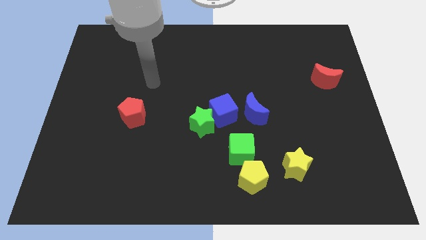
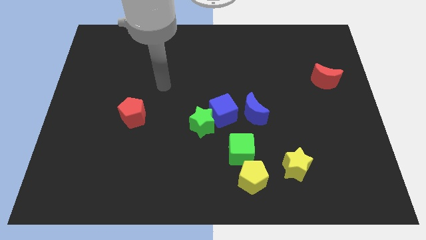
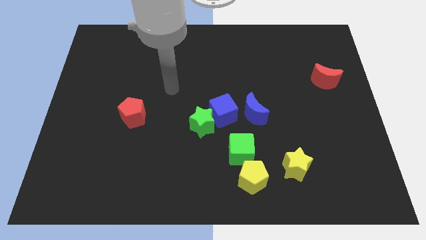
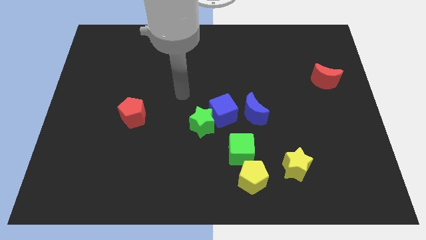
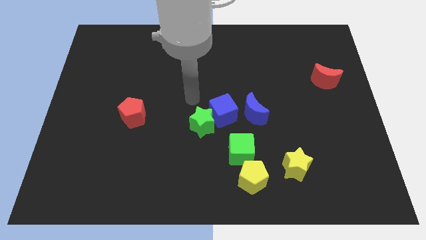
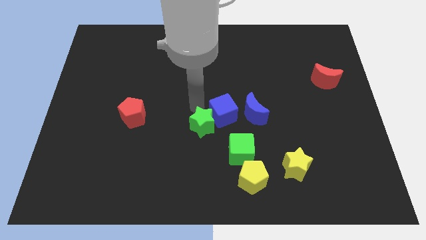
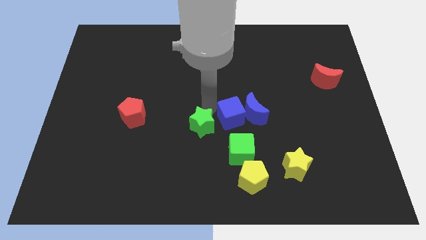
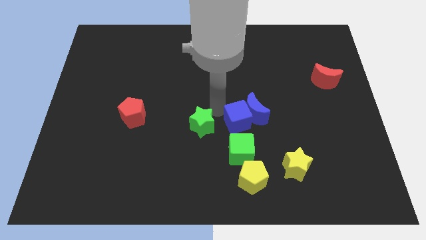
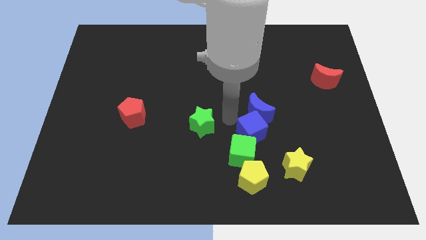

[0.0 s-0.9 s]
separate the green star from the blue cube

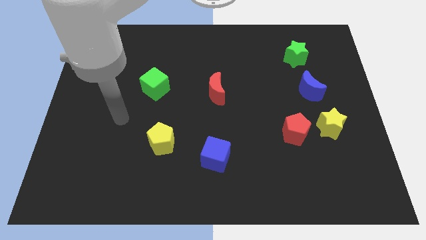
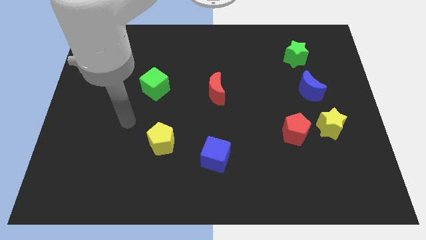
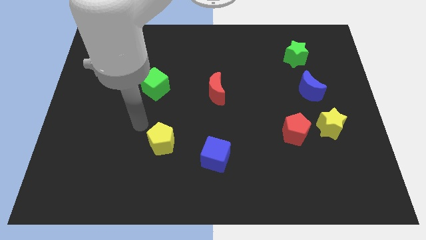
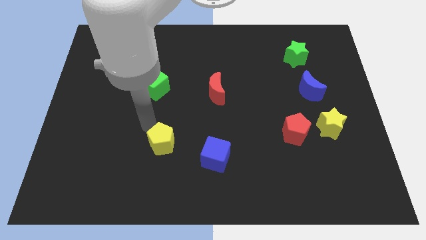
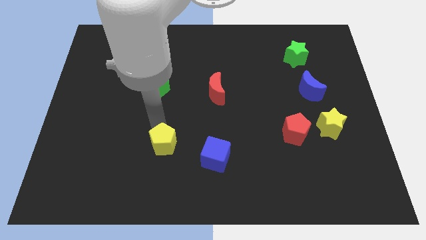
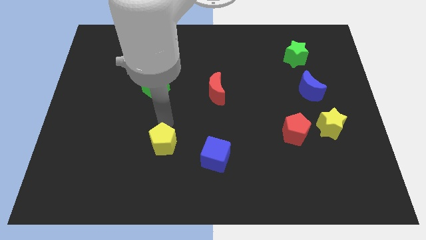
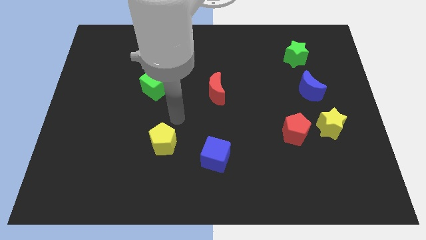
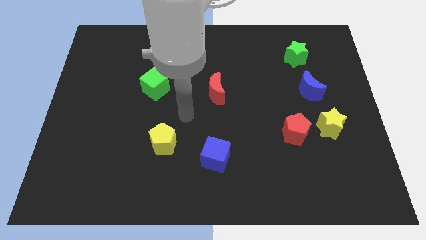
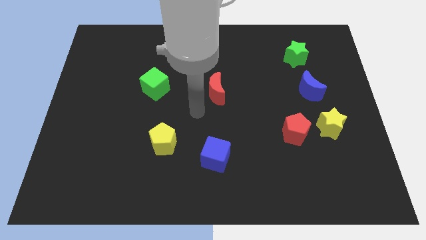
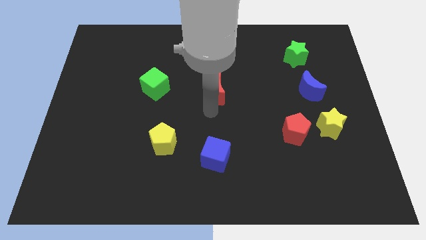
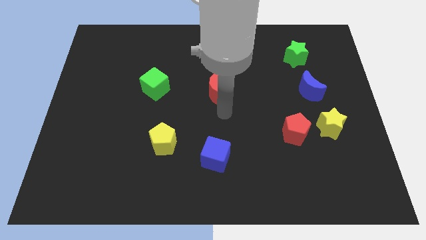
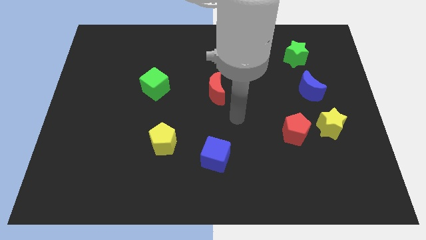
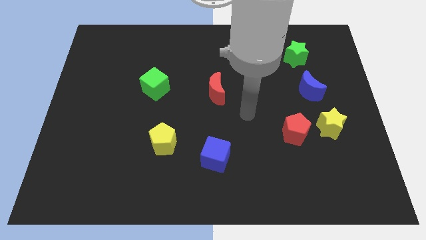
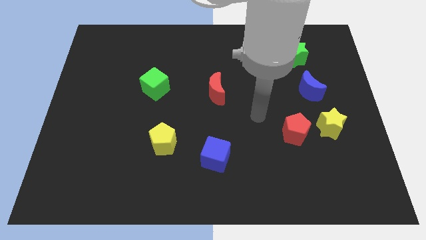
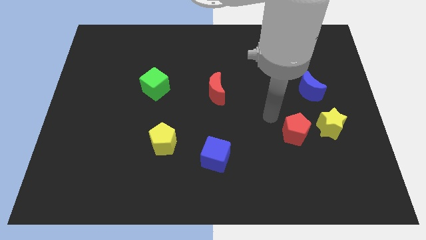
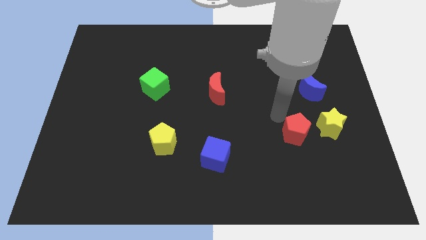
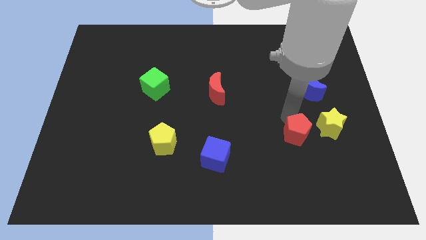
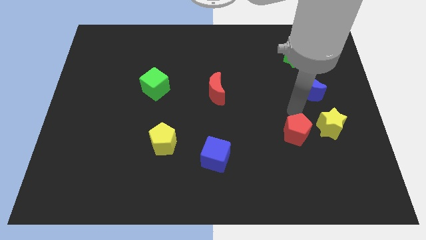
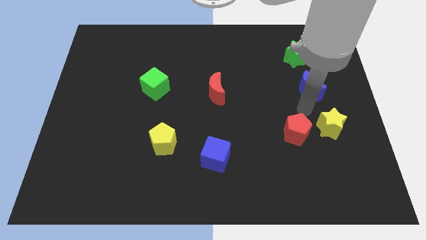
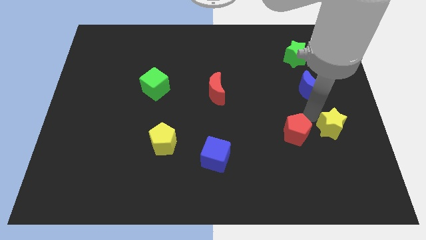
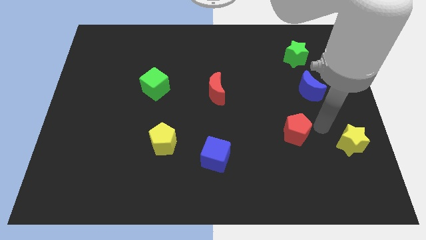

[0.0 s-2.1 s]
separate the red pentagon from the yellow star

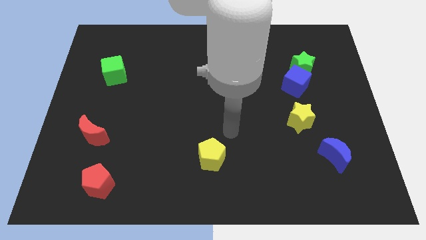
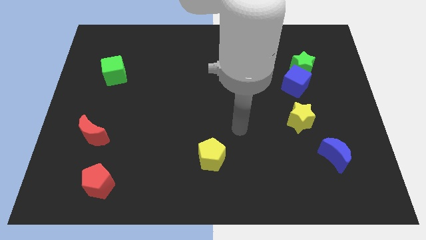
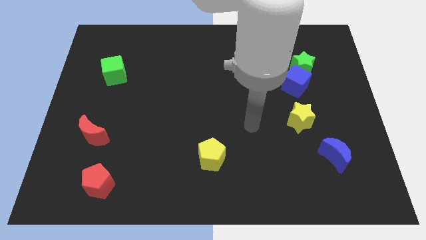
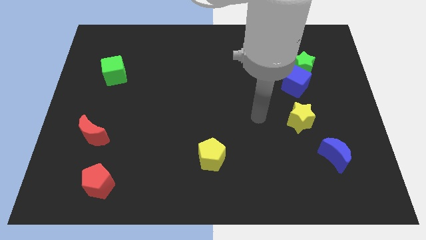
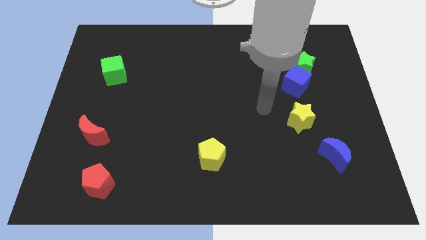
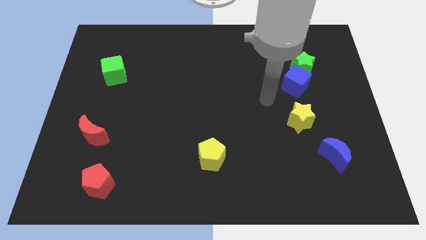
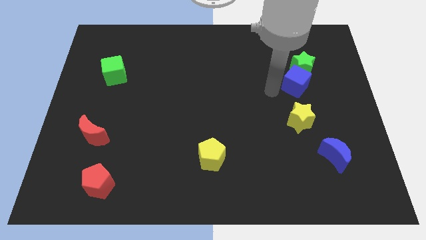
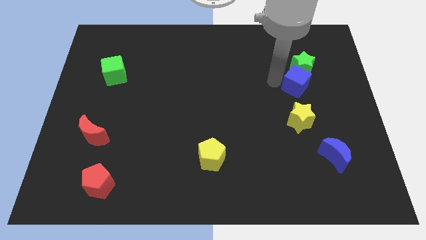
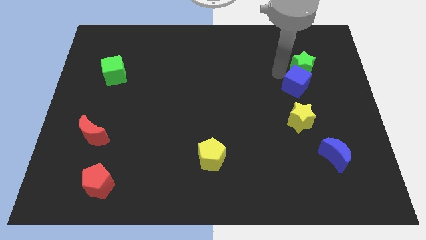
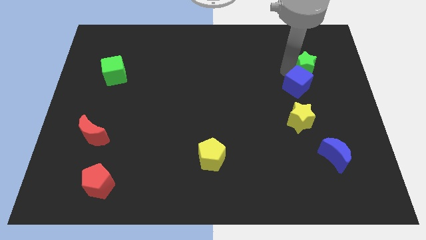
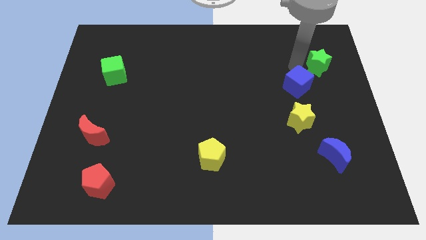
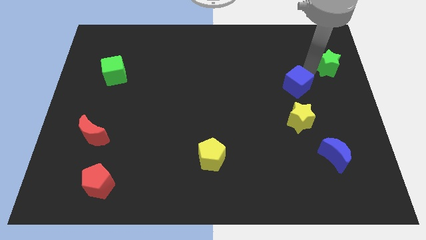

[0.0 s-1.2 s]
move the blue cube away from the green star

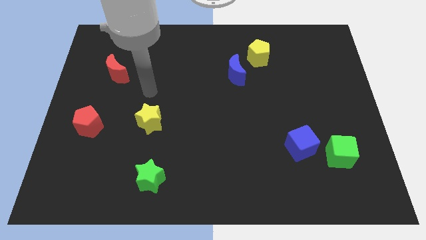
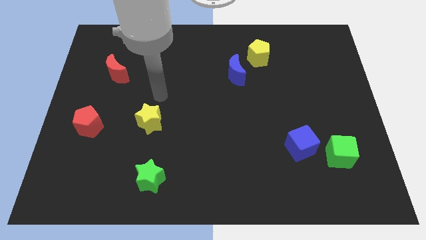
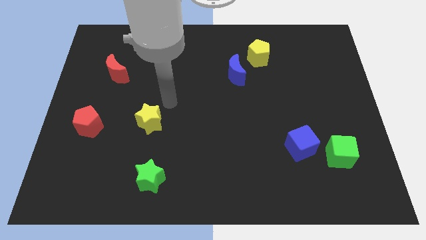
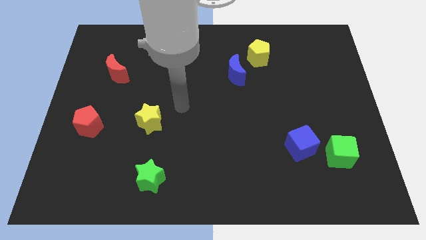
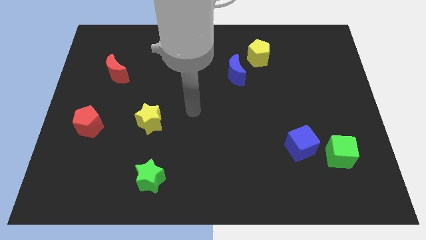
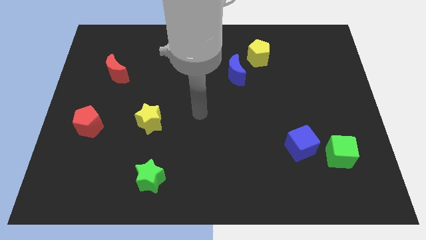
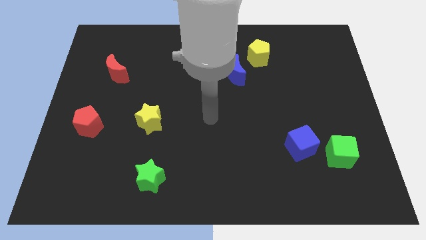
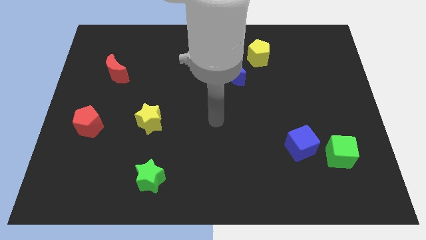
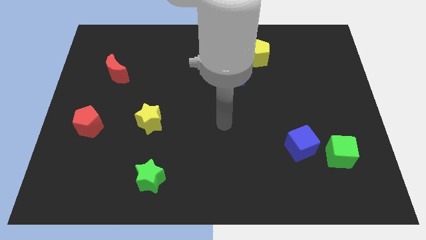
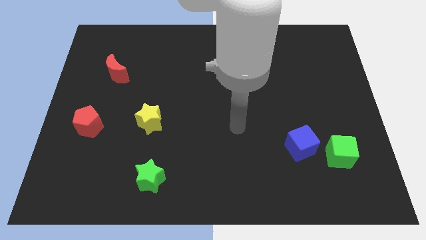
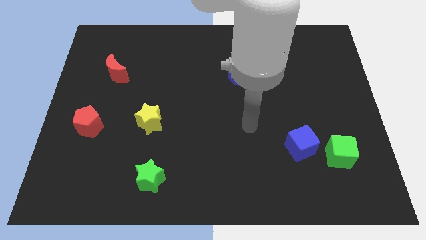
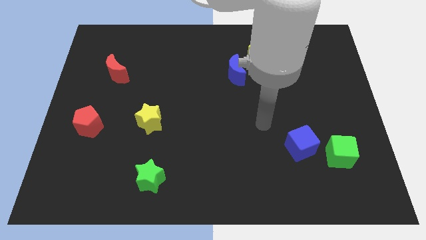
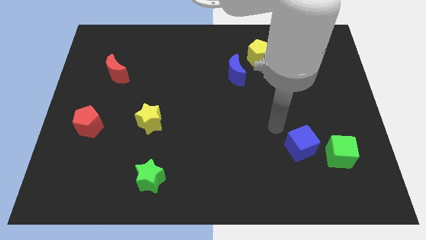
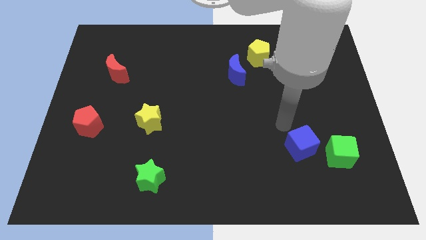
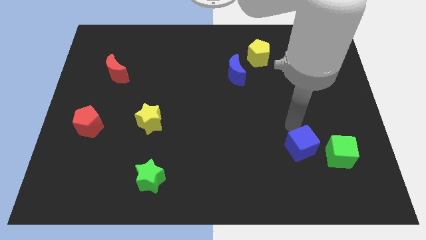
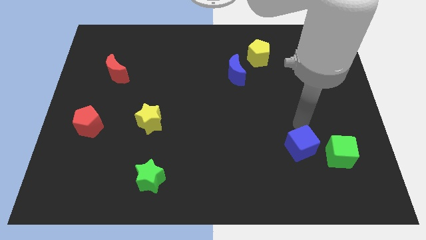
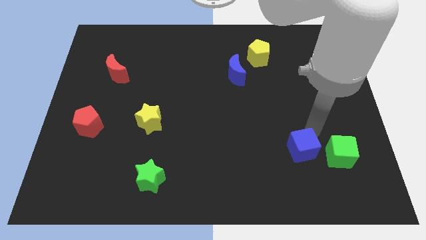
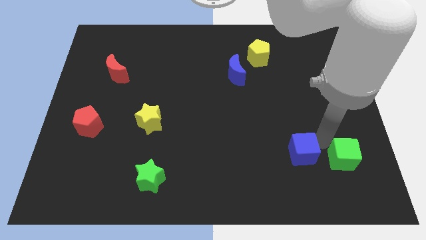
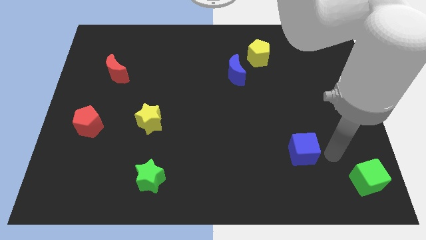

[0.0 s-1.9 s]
separate the blue cube from the green cube

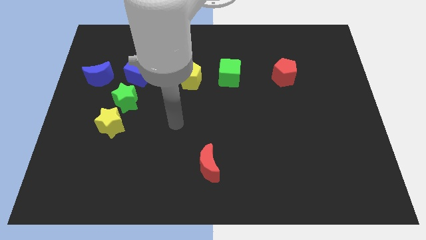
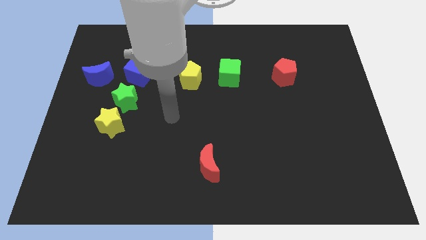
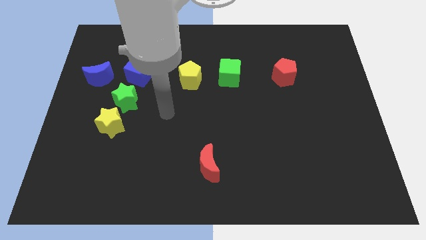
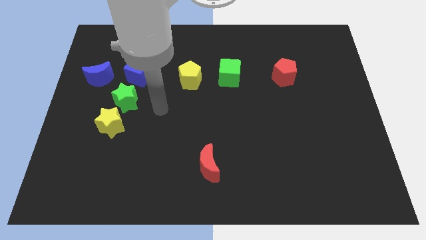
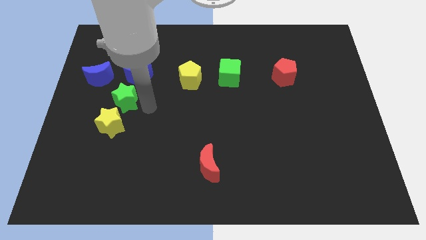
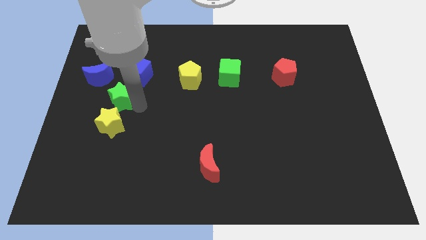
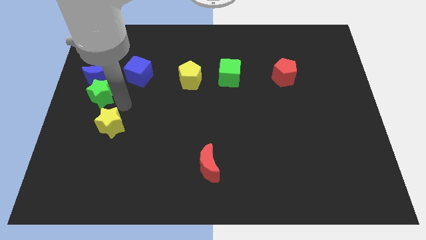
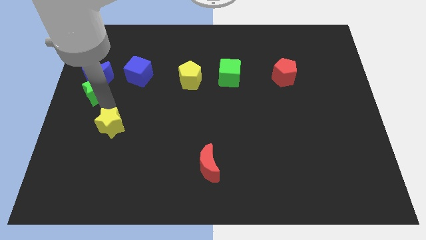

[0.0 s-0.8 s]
move the yellow star away from the green star

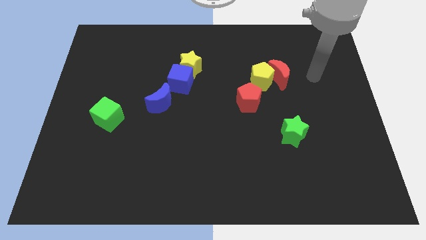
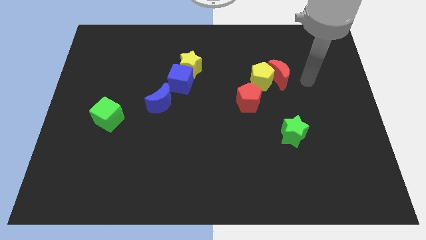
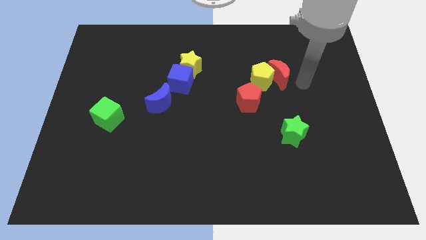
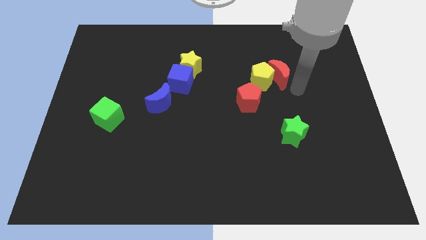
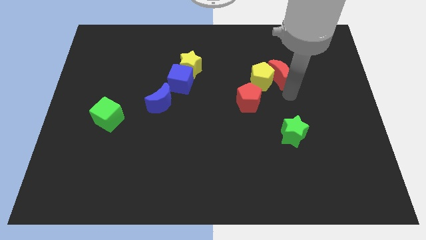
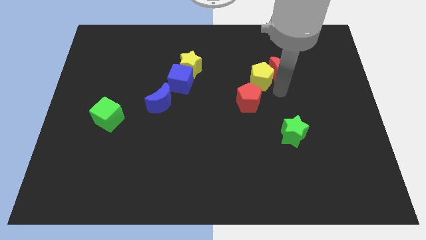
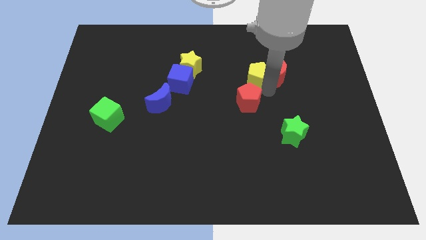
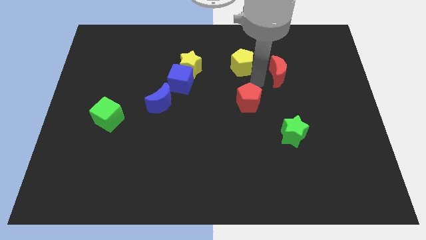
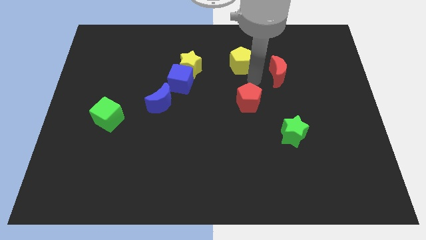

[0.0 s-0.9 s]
pull the red moon apart from the yellow pentagon

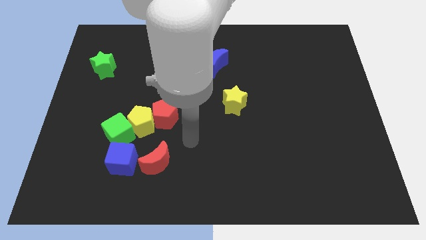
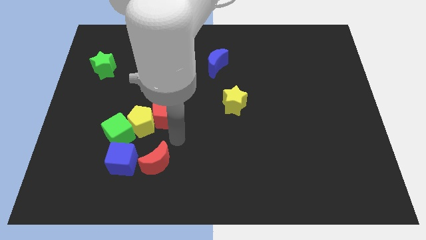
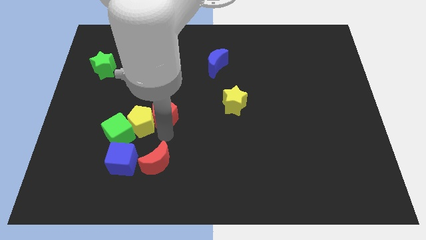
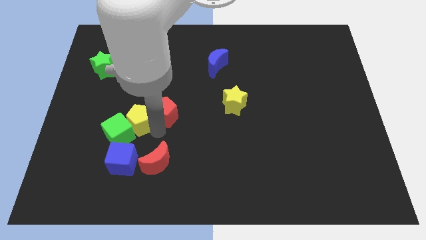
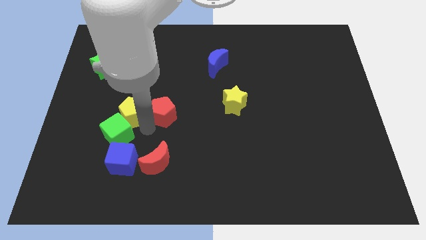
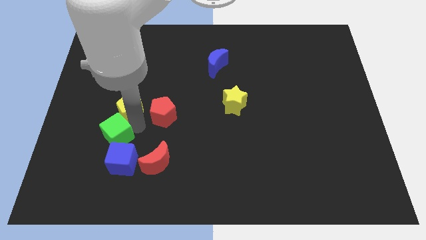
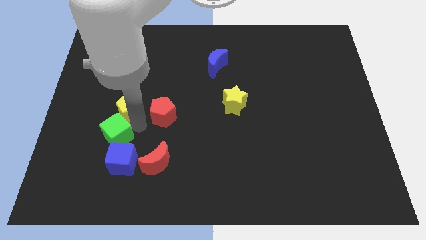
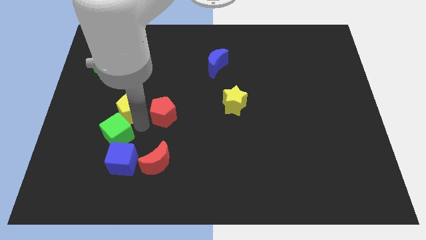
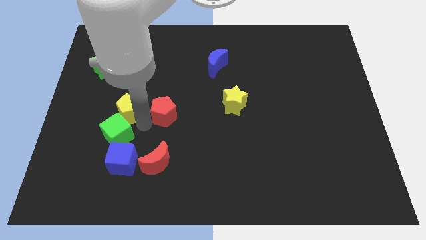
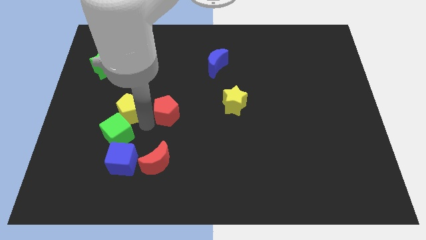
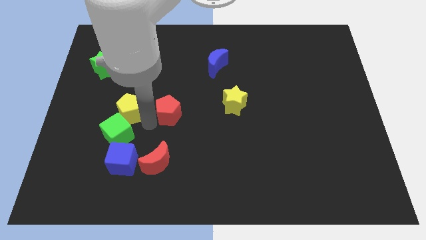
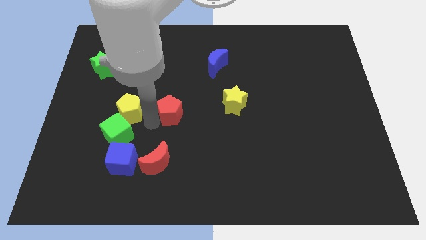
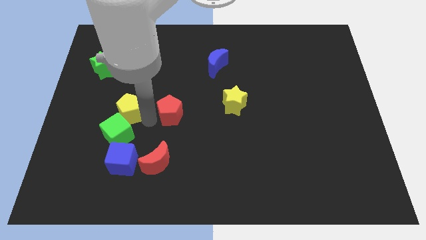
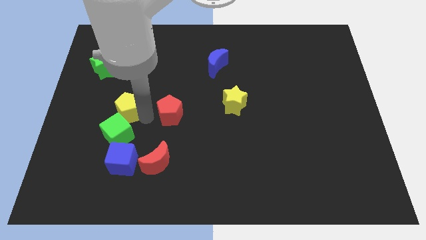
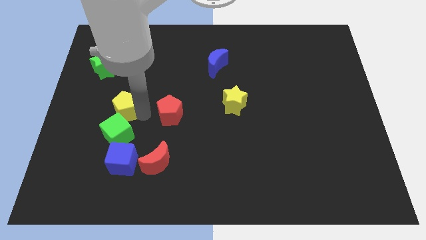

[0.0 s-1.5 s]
pull the red pentagon apart from the yellow pentagon
